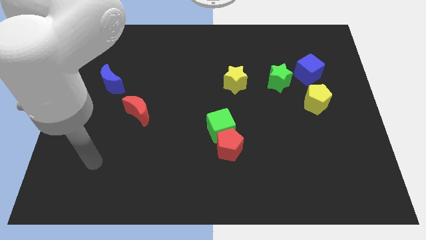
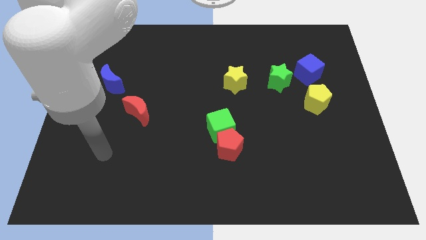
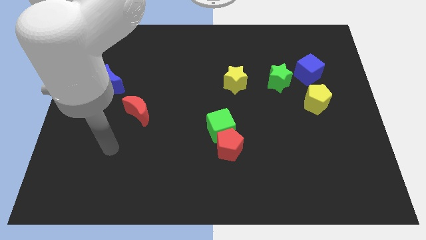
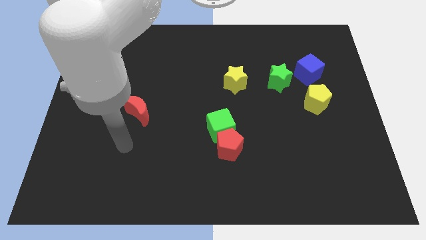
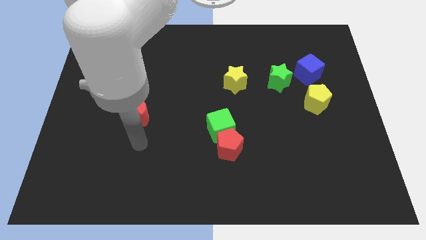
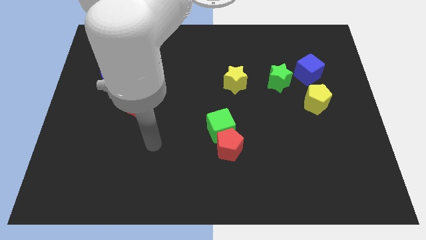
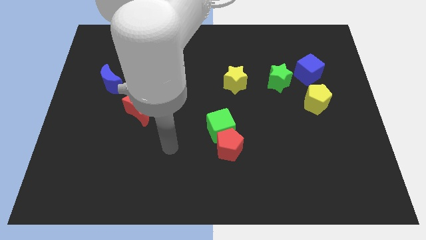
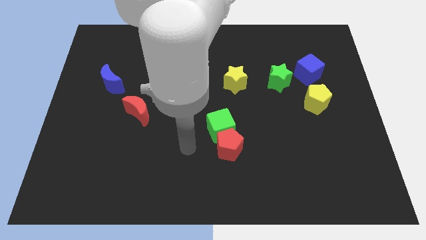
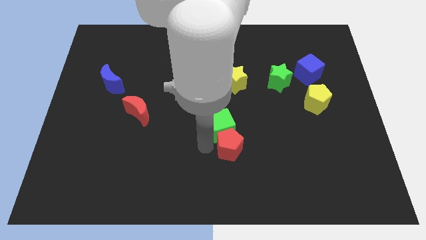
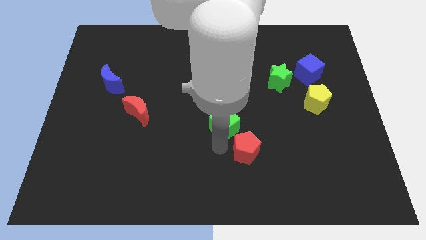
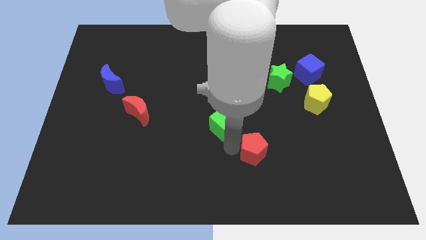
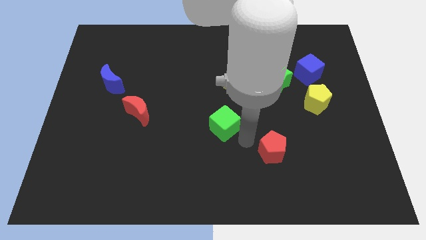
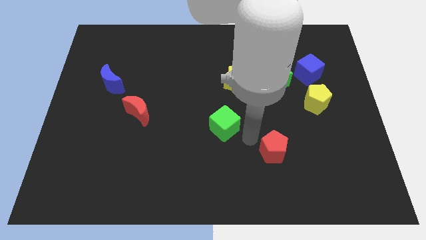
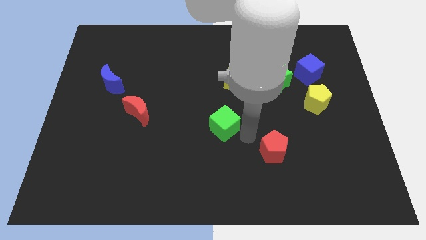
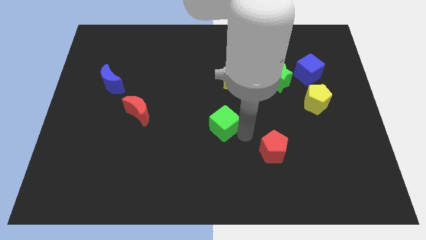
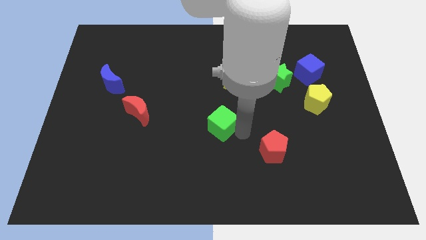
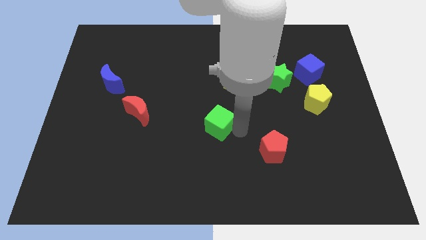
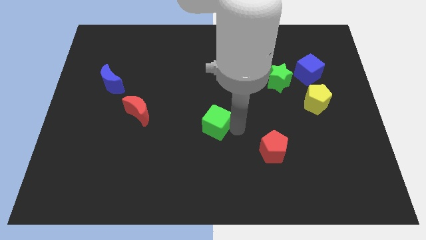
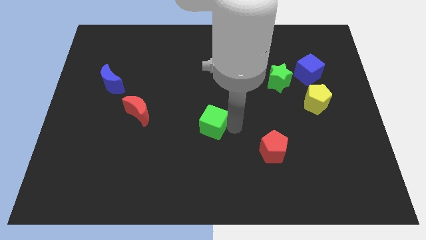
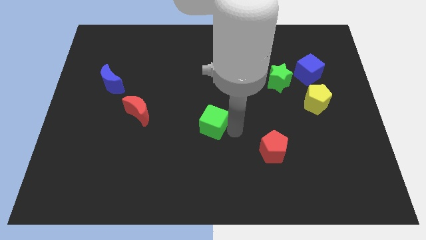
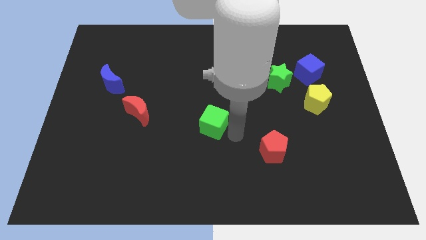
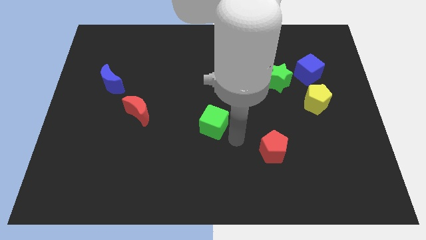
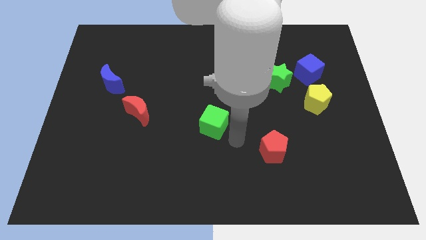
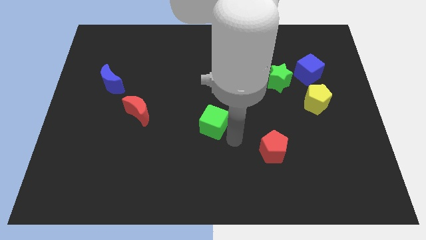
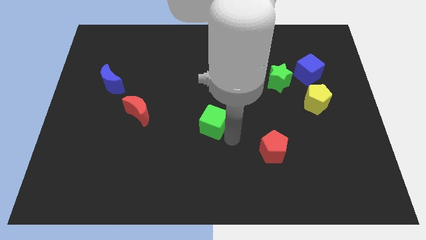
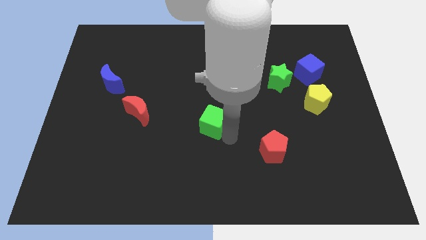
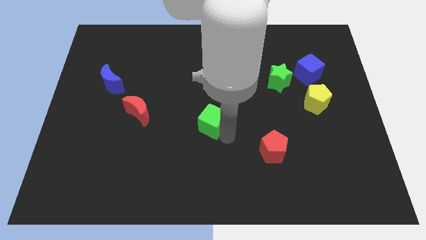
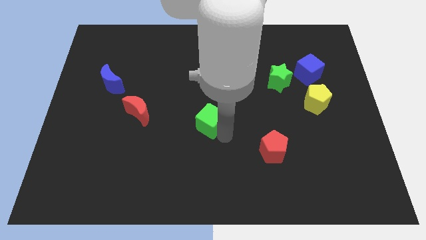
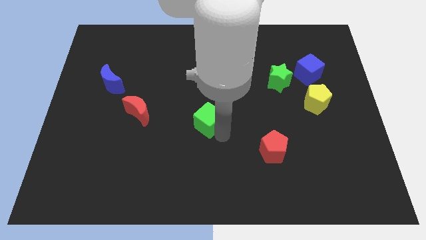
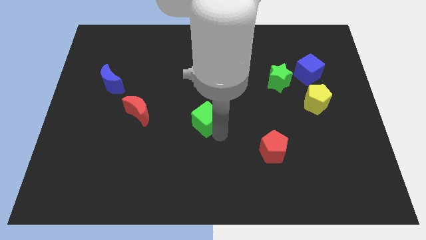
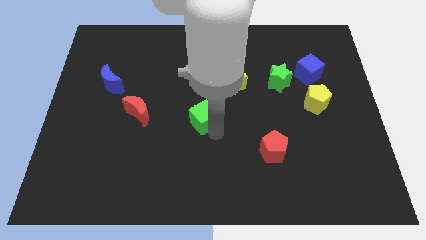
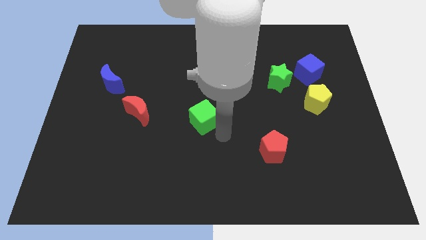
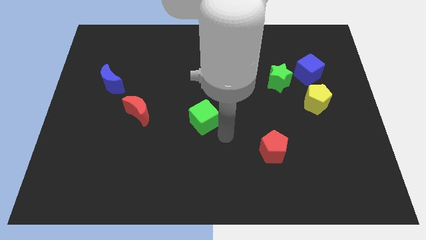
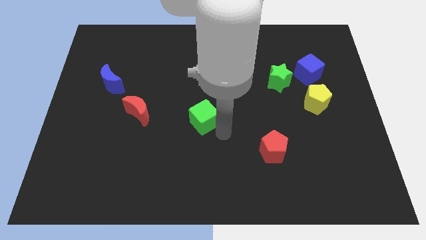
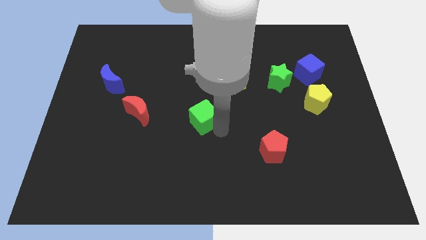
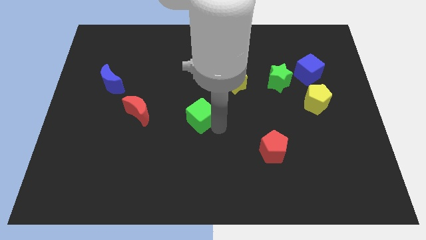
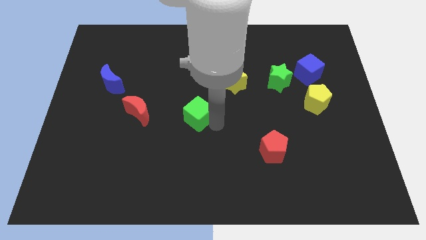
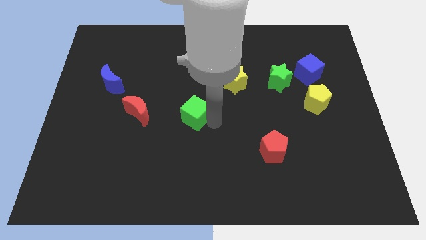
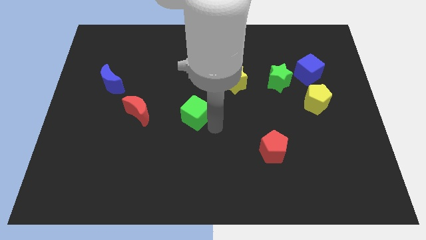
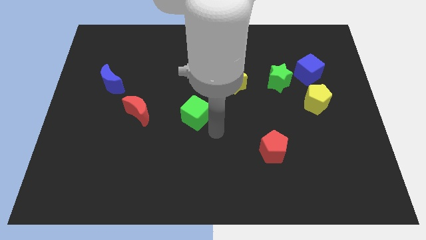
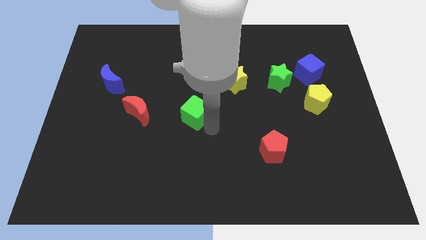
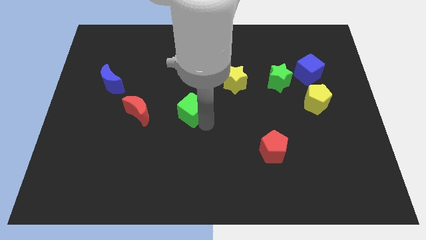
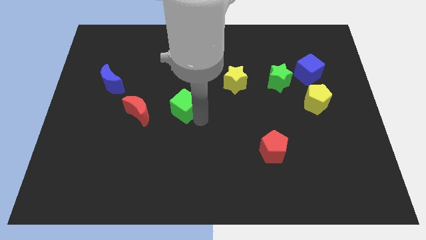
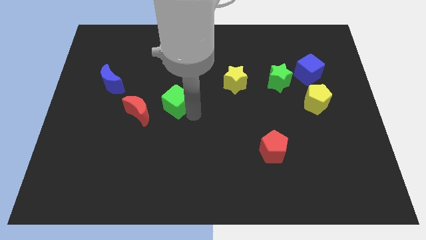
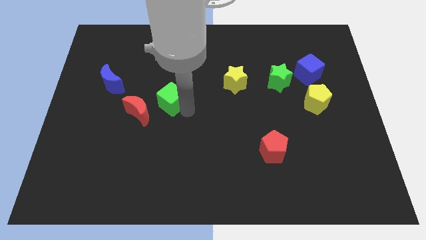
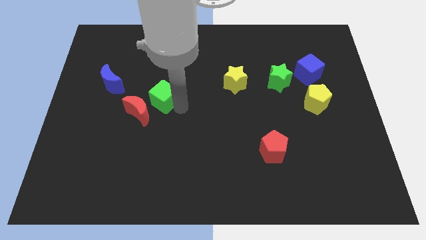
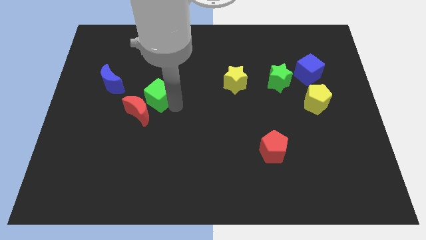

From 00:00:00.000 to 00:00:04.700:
push the green cube to the top side of the red moon

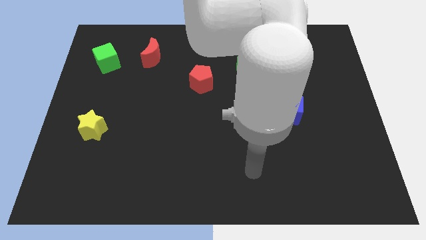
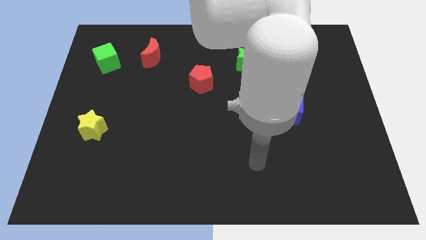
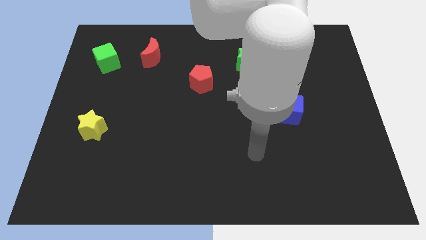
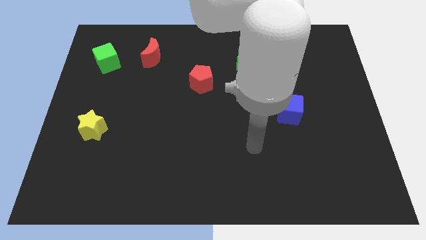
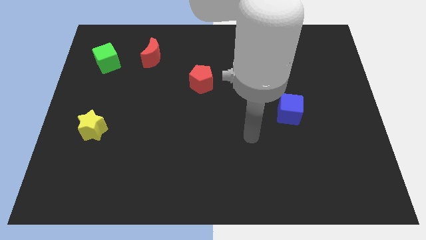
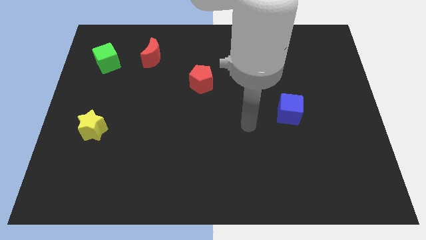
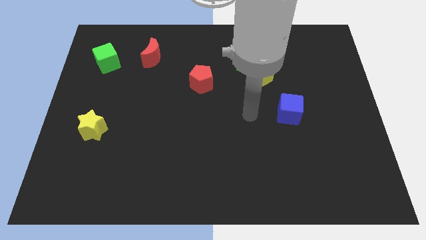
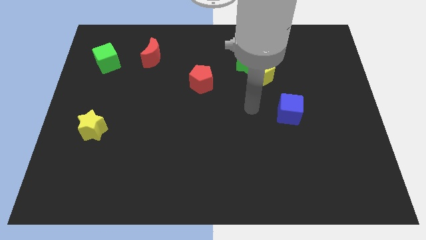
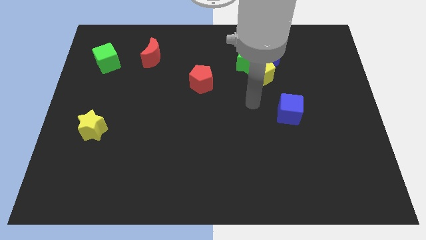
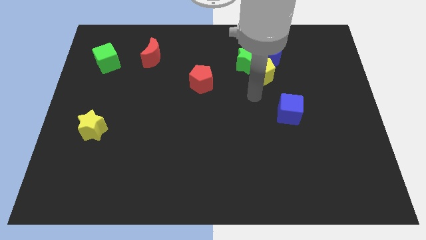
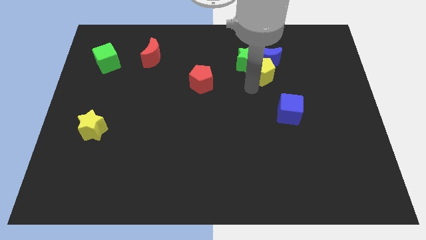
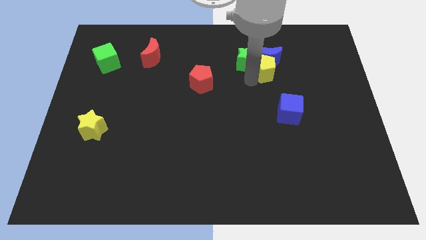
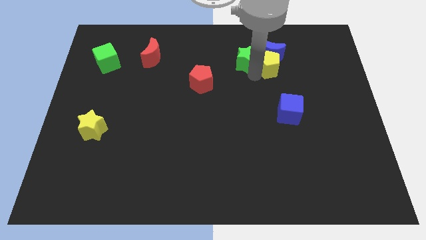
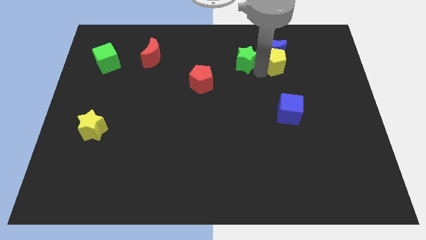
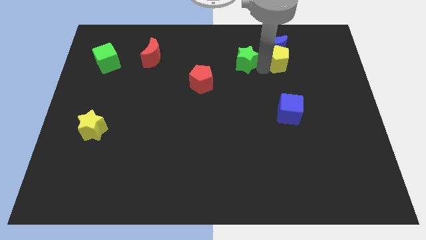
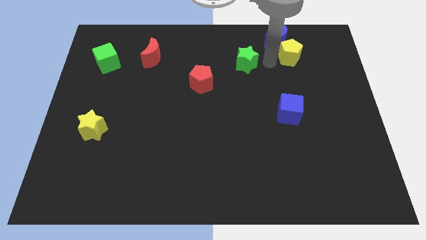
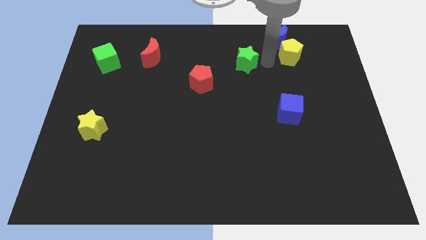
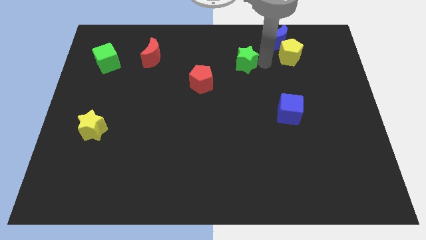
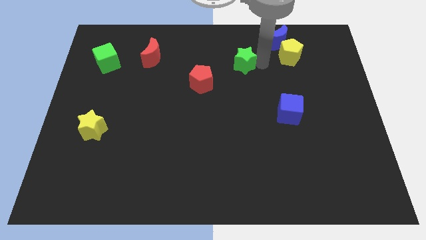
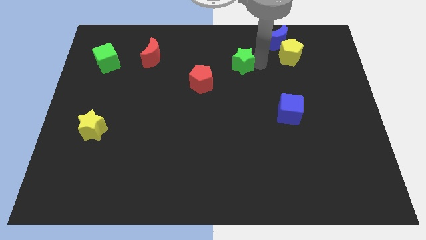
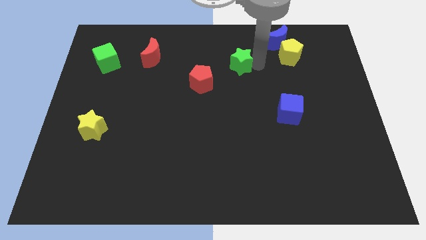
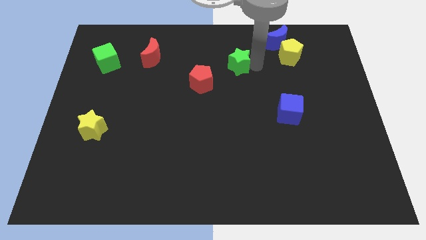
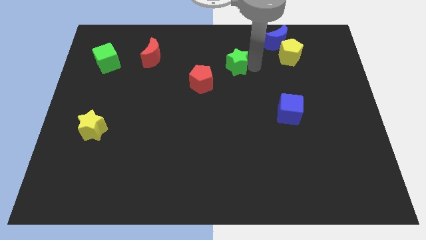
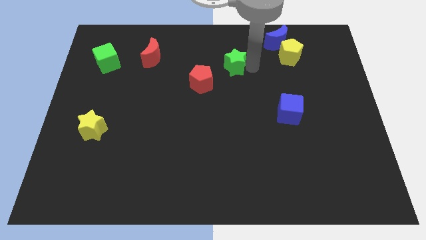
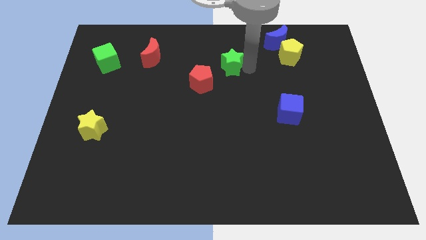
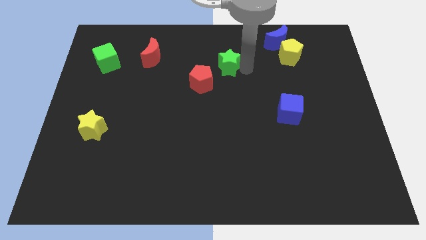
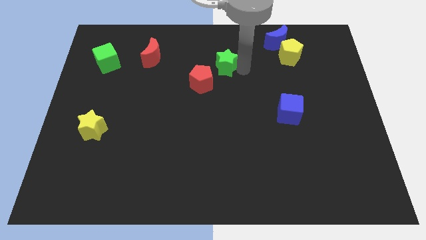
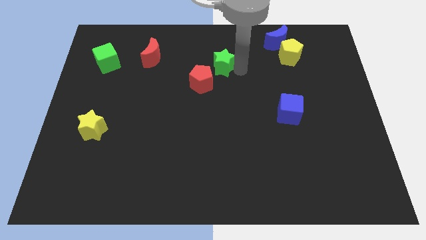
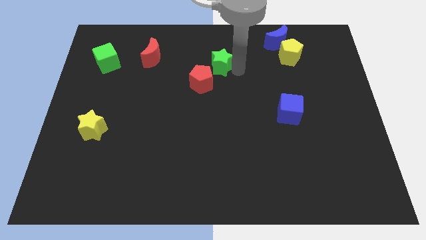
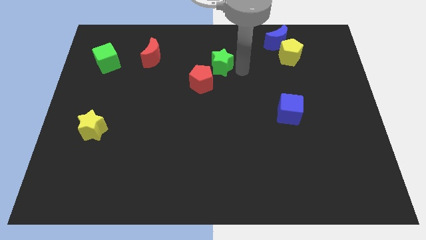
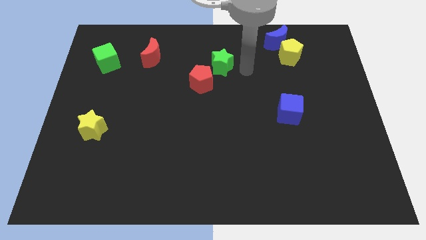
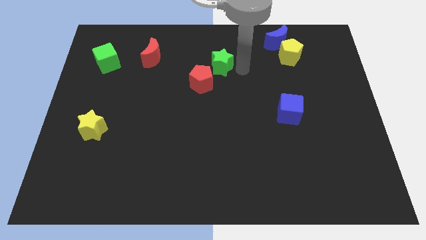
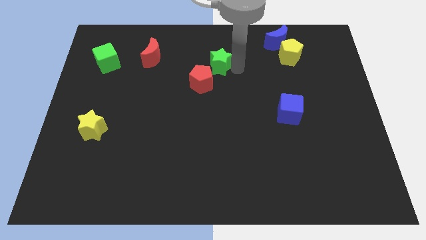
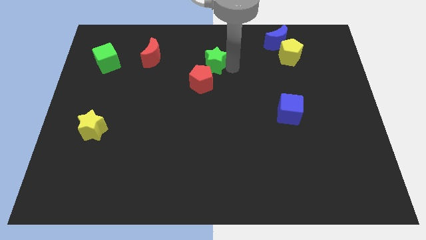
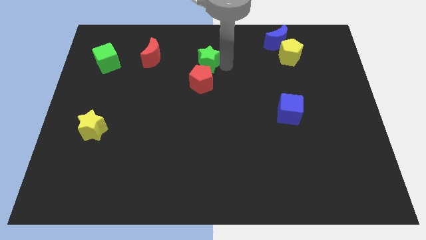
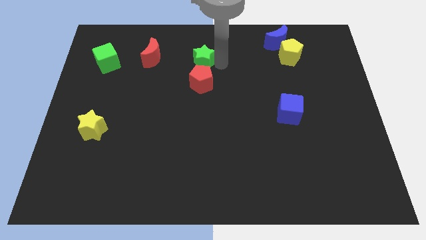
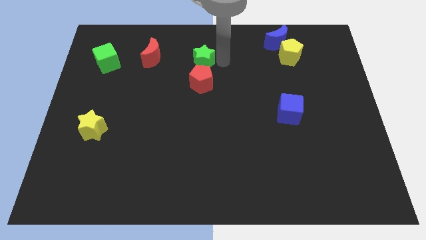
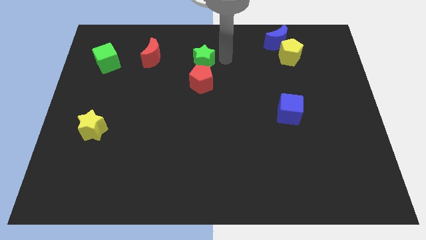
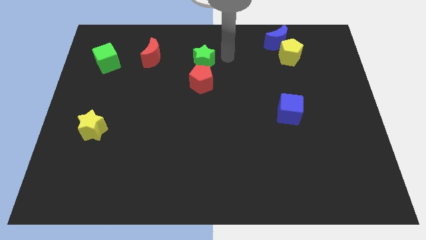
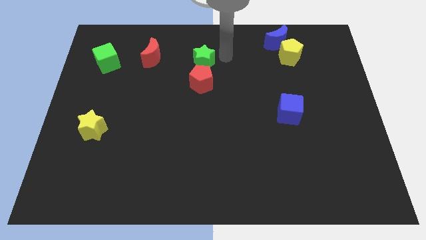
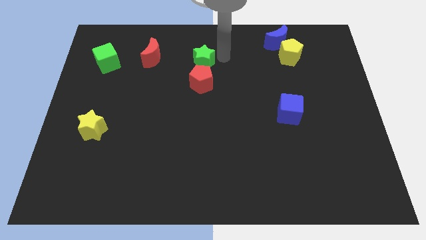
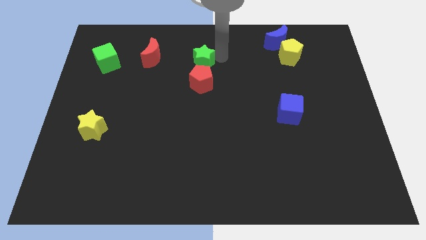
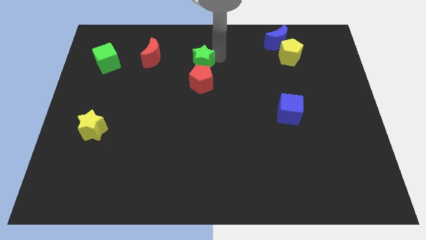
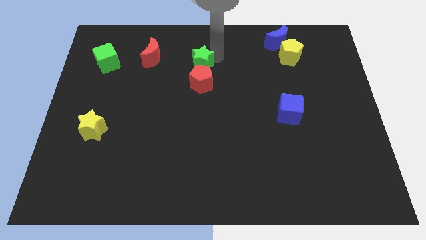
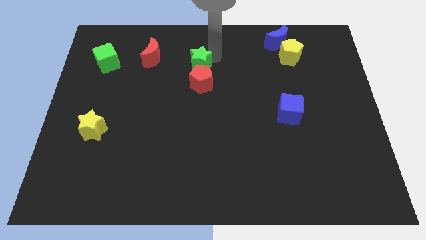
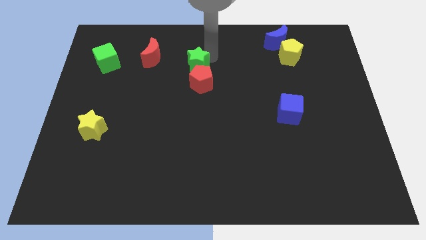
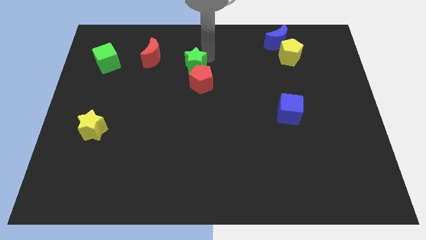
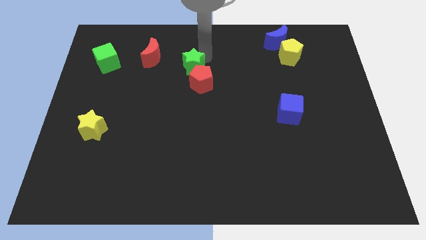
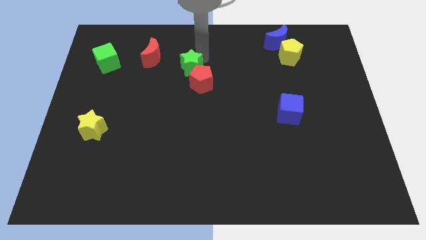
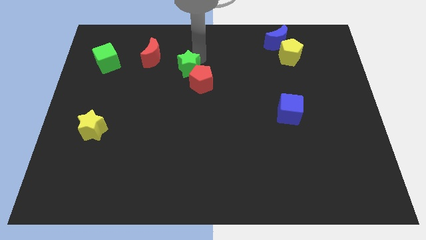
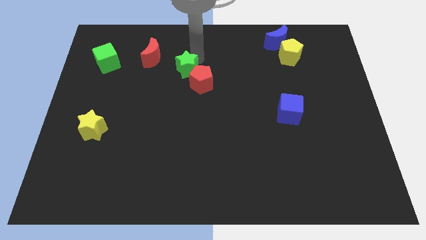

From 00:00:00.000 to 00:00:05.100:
push the green star just left of the red pentagon
